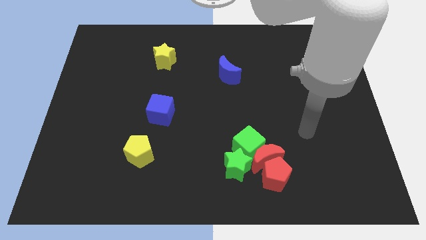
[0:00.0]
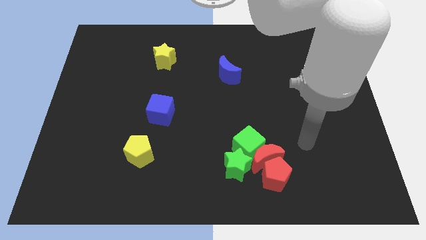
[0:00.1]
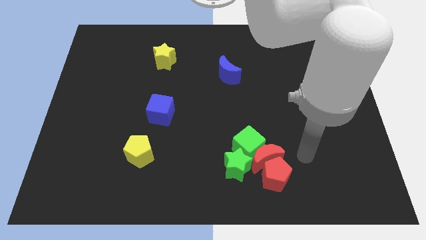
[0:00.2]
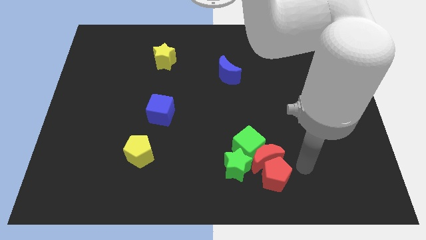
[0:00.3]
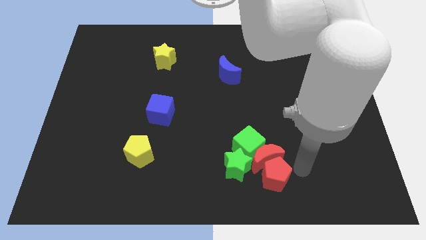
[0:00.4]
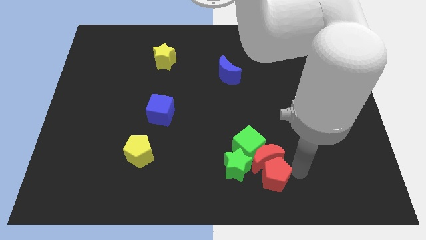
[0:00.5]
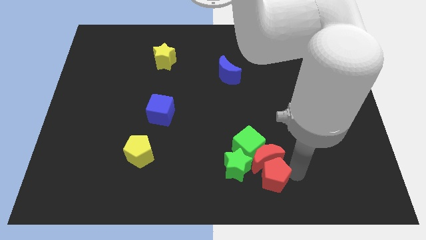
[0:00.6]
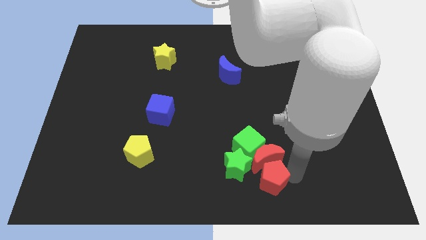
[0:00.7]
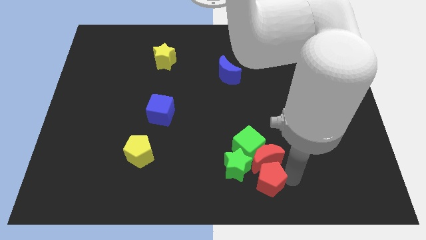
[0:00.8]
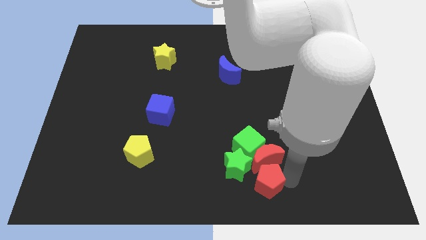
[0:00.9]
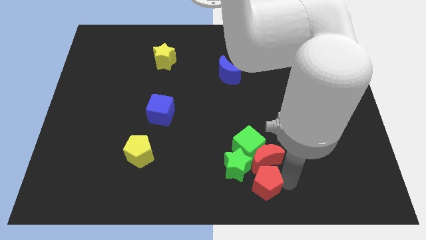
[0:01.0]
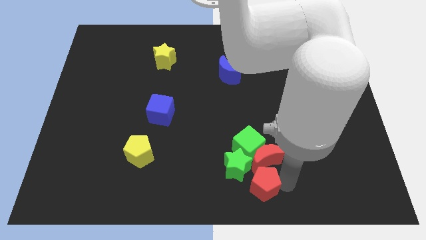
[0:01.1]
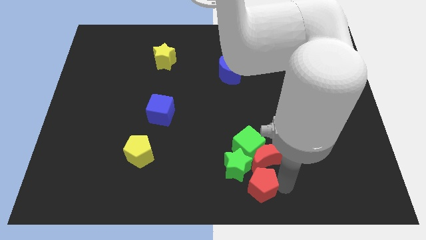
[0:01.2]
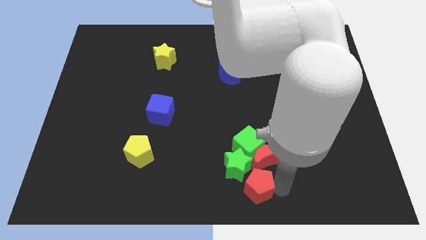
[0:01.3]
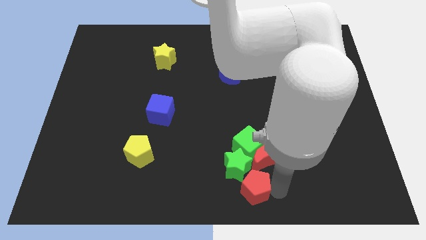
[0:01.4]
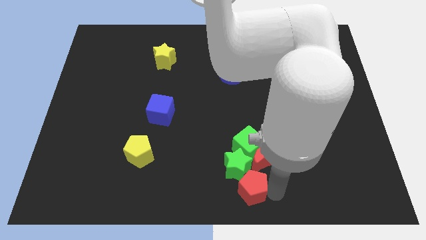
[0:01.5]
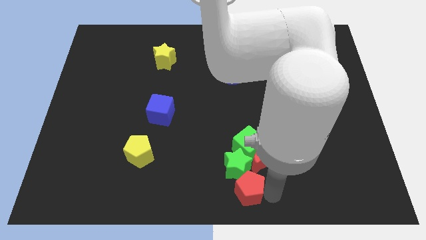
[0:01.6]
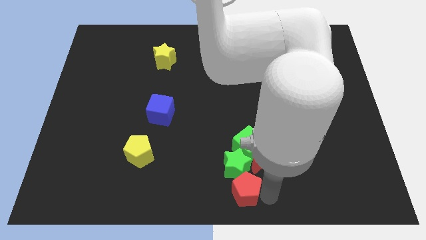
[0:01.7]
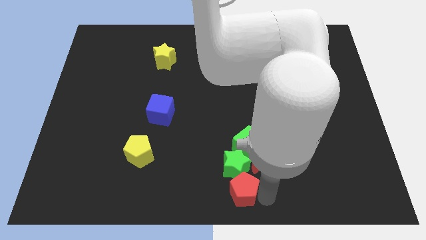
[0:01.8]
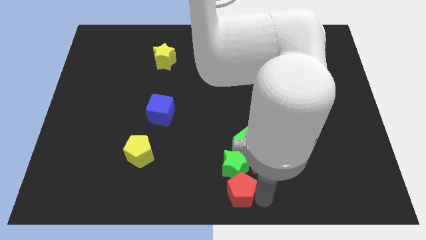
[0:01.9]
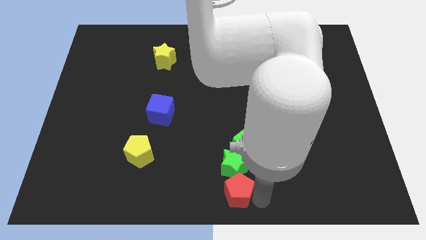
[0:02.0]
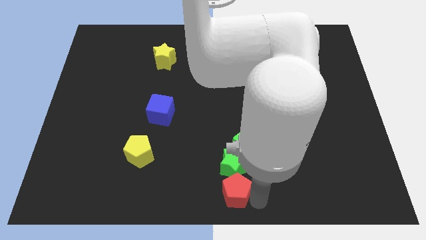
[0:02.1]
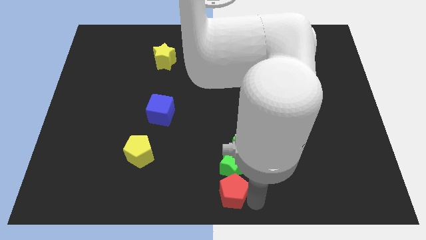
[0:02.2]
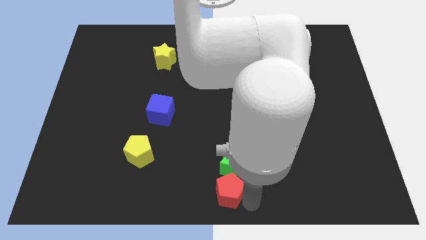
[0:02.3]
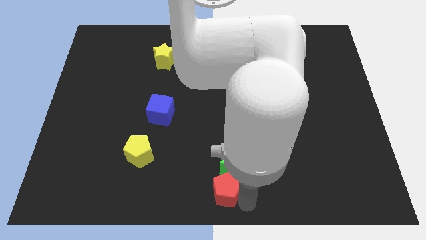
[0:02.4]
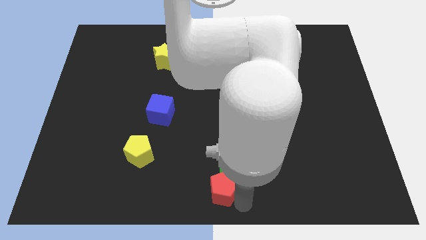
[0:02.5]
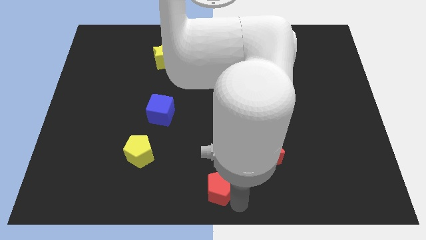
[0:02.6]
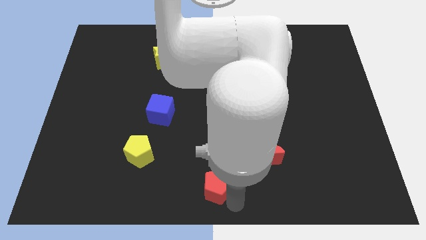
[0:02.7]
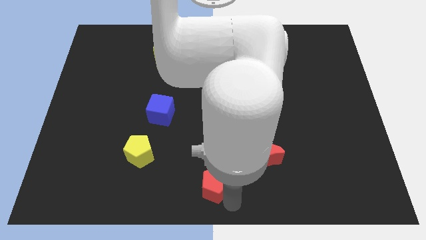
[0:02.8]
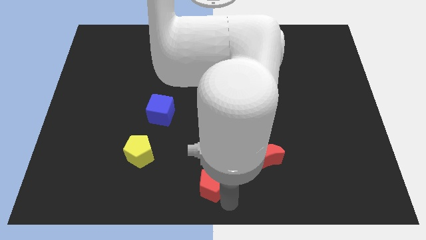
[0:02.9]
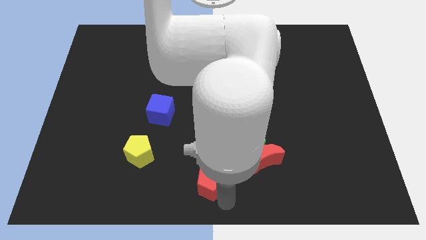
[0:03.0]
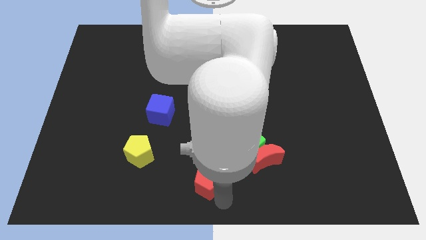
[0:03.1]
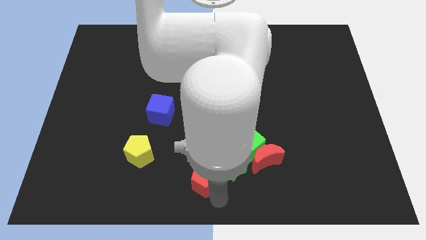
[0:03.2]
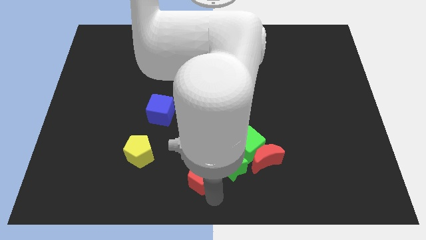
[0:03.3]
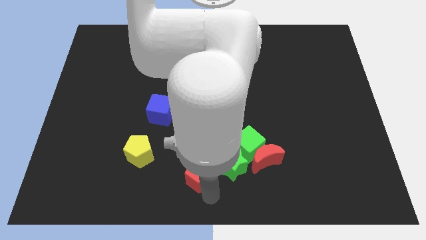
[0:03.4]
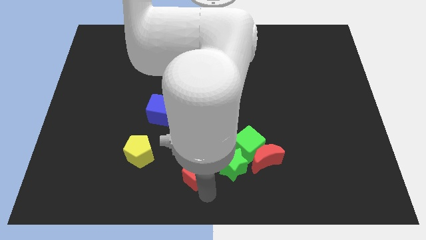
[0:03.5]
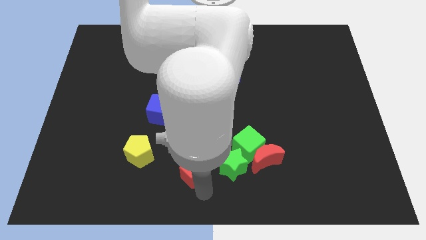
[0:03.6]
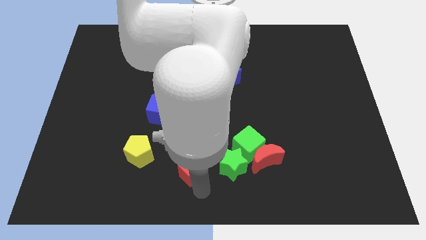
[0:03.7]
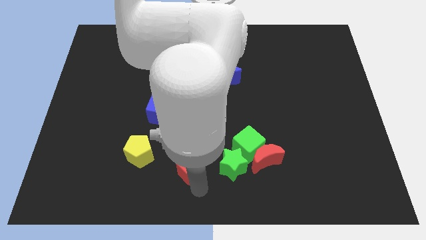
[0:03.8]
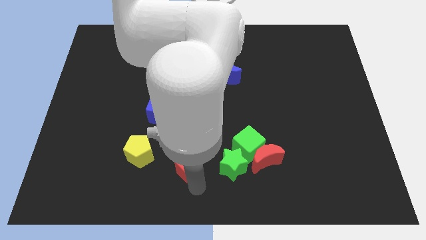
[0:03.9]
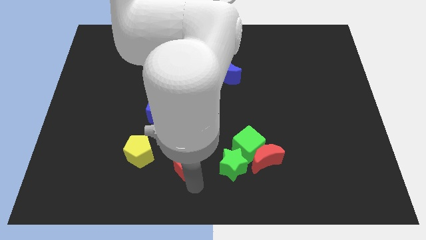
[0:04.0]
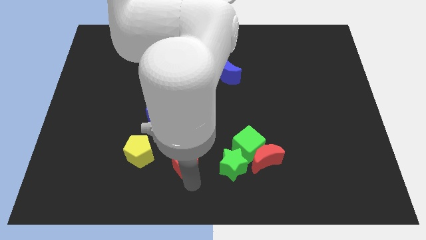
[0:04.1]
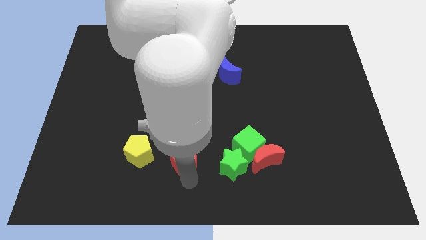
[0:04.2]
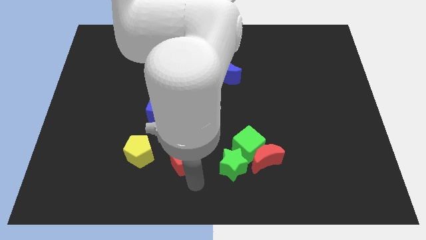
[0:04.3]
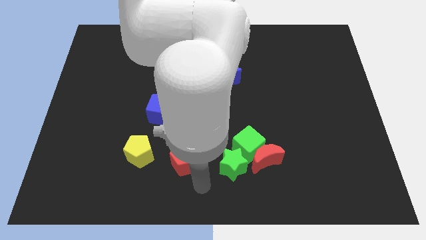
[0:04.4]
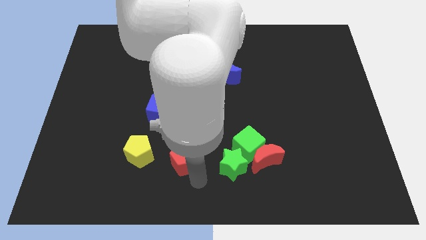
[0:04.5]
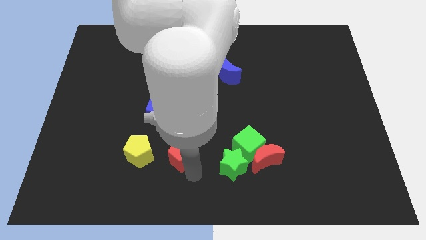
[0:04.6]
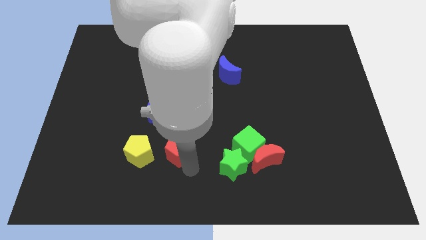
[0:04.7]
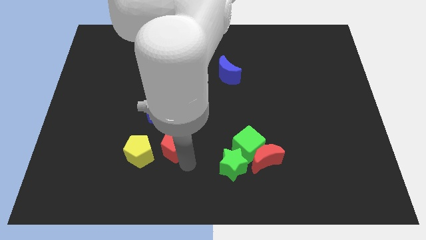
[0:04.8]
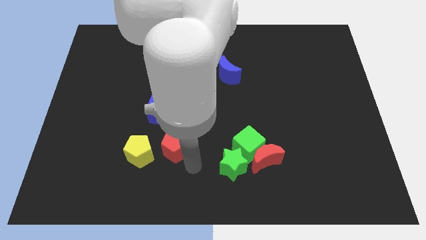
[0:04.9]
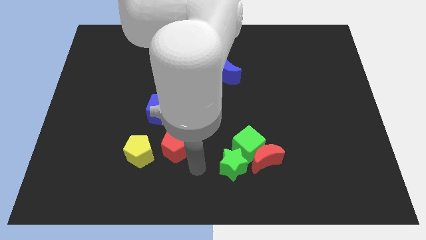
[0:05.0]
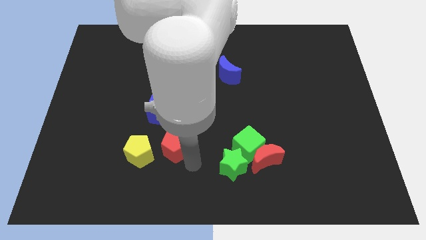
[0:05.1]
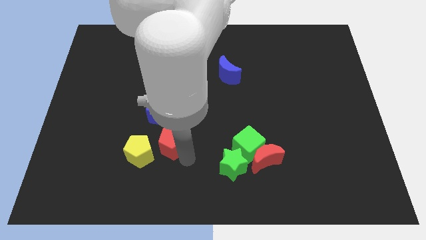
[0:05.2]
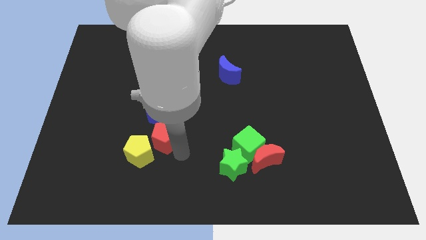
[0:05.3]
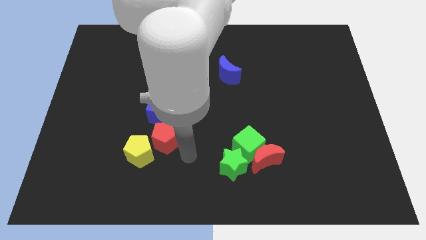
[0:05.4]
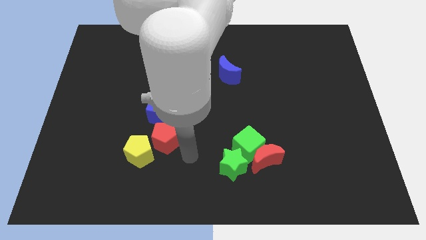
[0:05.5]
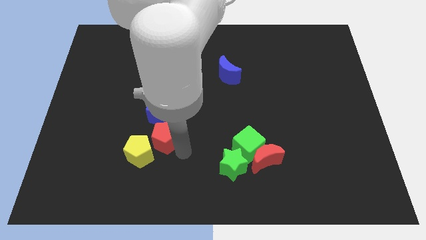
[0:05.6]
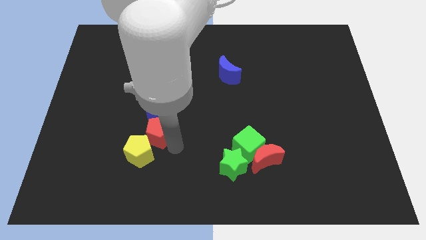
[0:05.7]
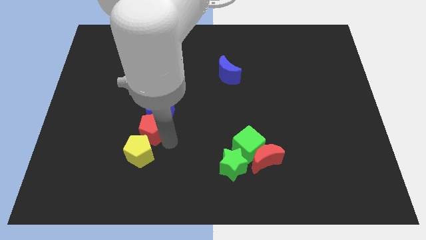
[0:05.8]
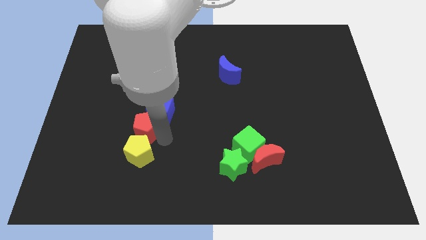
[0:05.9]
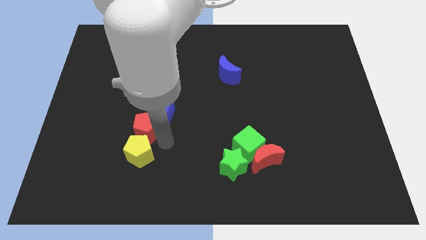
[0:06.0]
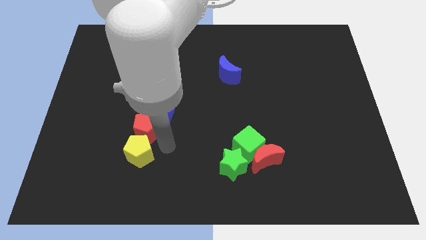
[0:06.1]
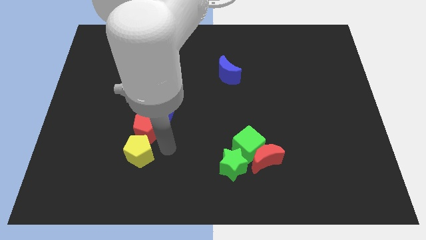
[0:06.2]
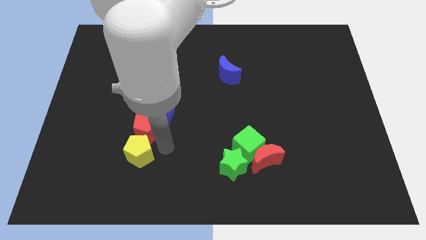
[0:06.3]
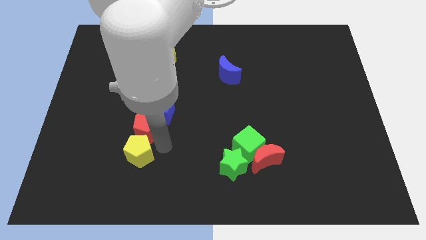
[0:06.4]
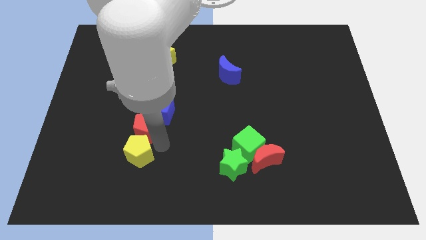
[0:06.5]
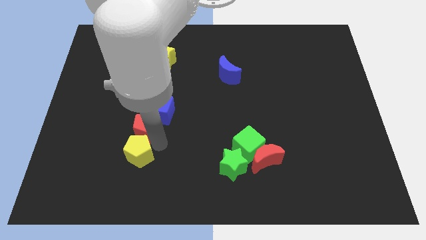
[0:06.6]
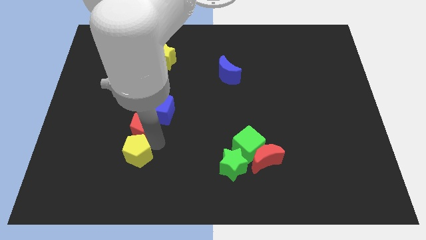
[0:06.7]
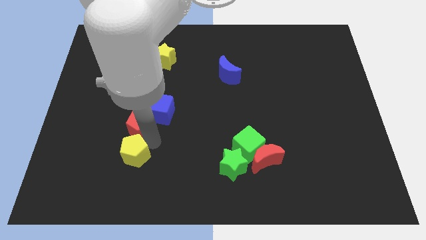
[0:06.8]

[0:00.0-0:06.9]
move the red pentagon just left of the blue cube
